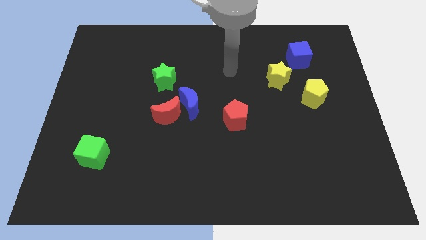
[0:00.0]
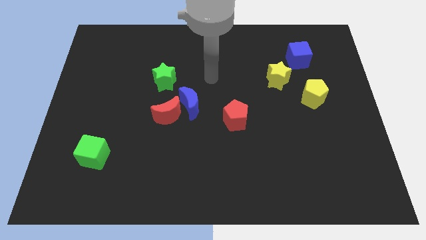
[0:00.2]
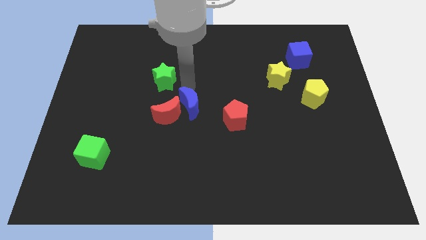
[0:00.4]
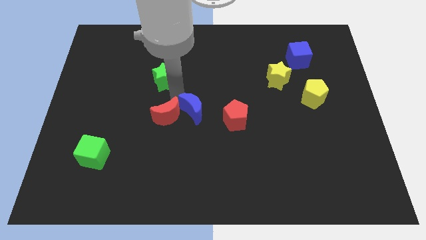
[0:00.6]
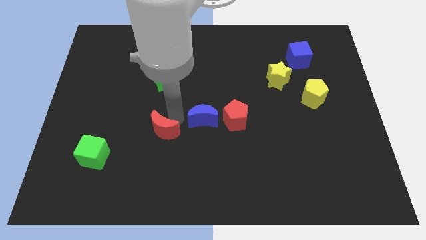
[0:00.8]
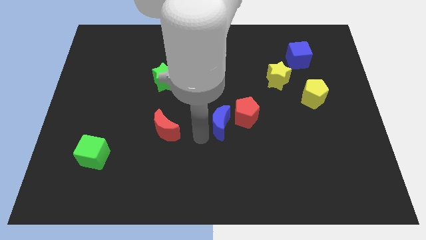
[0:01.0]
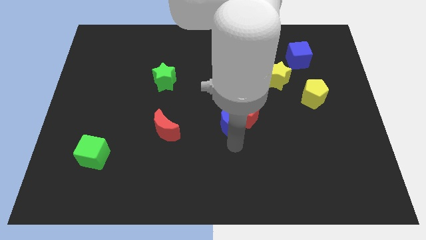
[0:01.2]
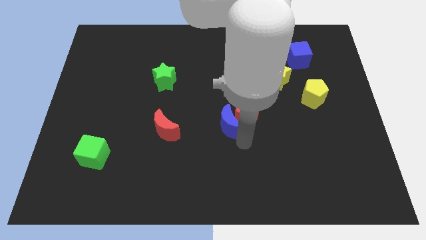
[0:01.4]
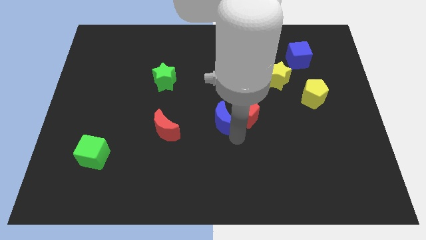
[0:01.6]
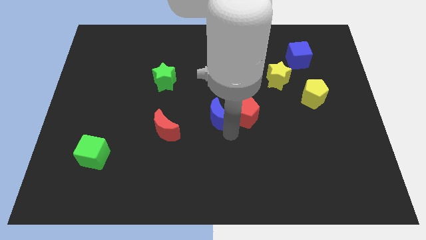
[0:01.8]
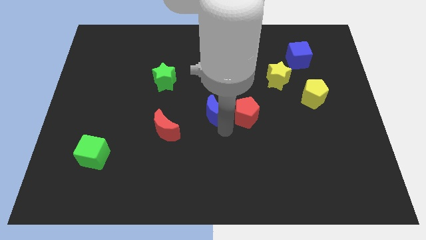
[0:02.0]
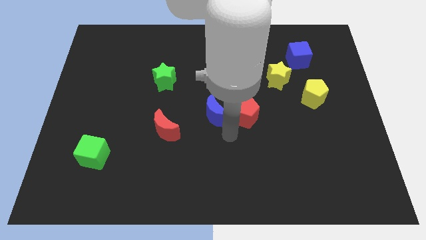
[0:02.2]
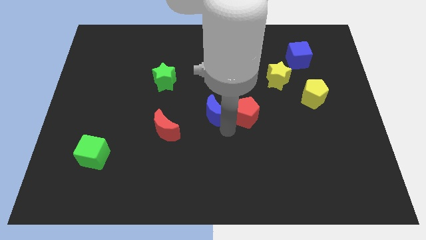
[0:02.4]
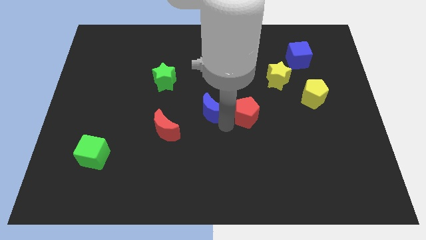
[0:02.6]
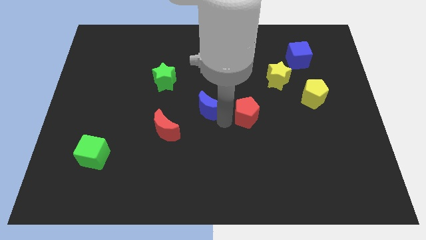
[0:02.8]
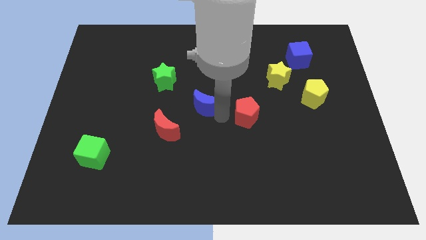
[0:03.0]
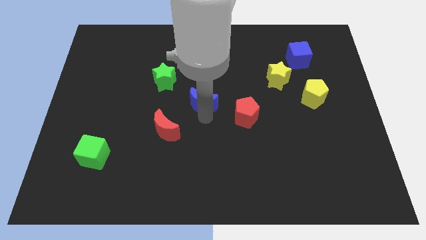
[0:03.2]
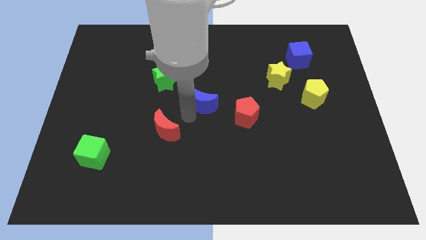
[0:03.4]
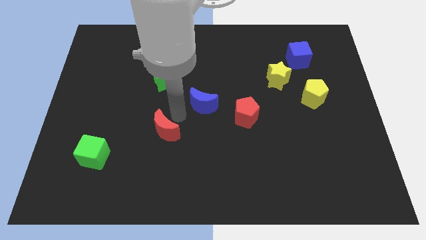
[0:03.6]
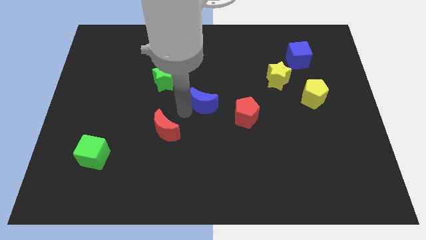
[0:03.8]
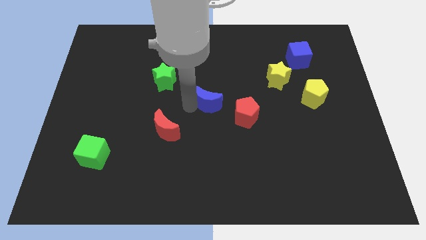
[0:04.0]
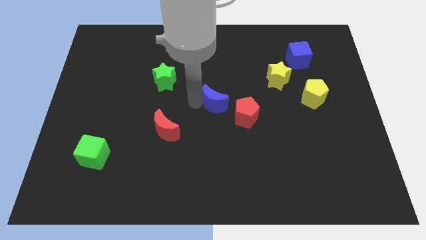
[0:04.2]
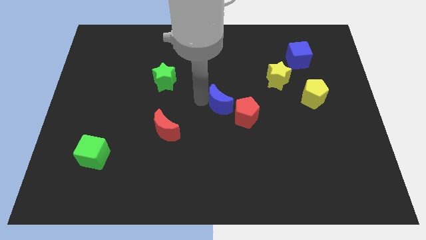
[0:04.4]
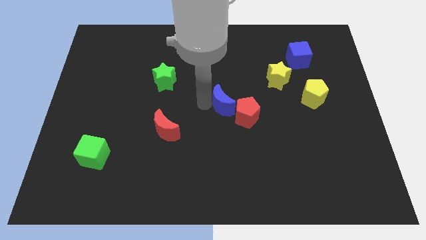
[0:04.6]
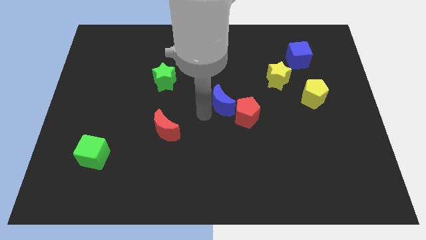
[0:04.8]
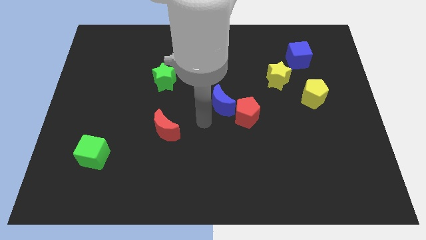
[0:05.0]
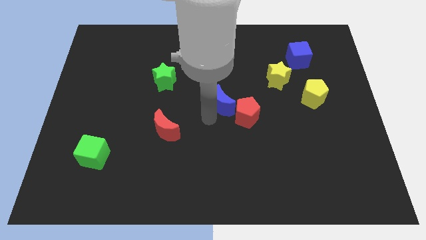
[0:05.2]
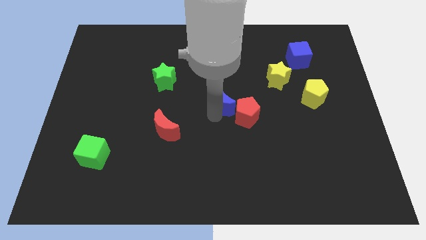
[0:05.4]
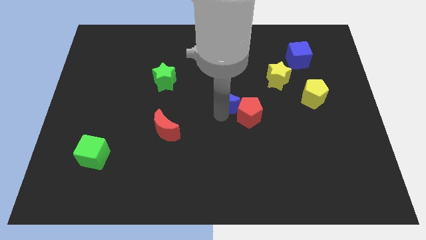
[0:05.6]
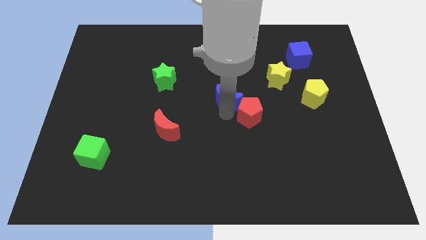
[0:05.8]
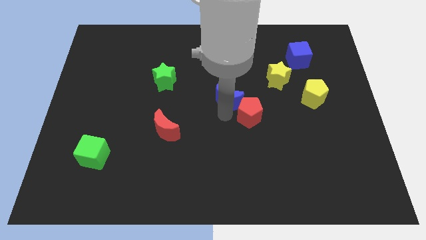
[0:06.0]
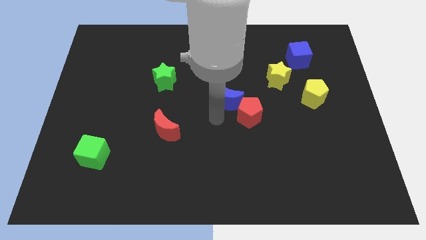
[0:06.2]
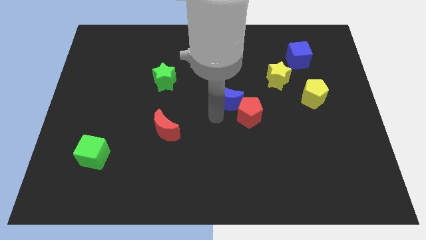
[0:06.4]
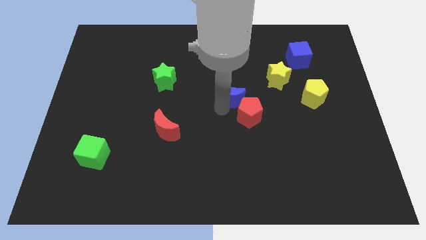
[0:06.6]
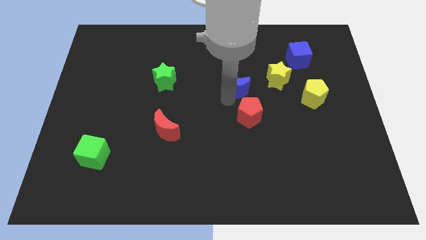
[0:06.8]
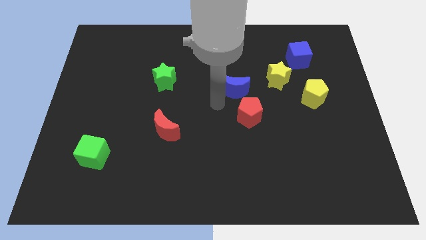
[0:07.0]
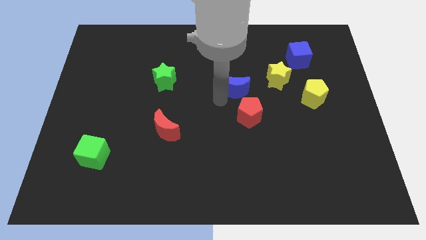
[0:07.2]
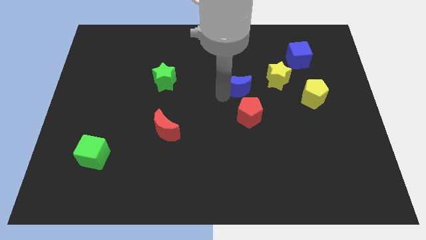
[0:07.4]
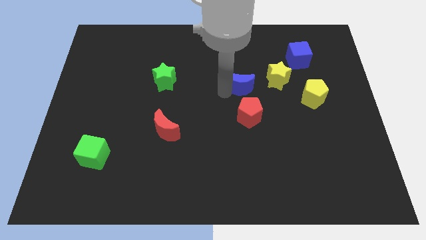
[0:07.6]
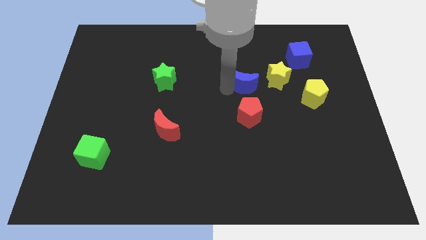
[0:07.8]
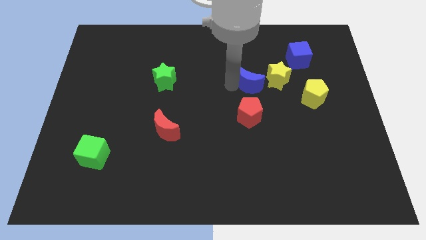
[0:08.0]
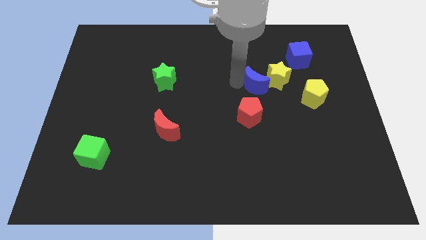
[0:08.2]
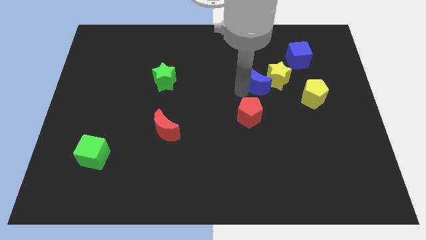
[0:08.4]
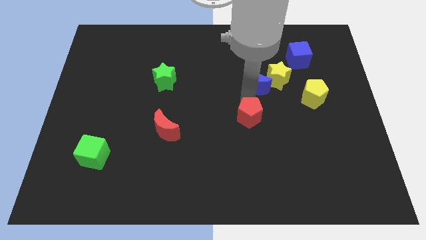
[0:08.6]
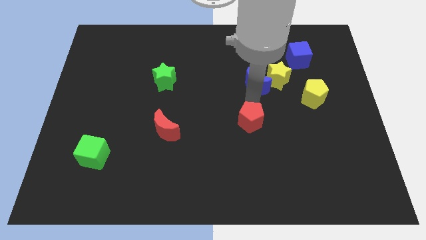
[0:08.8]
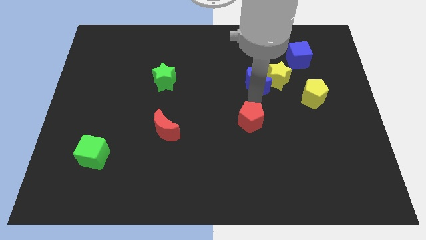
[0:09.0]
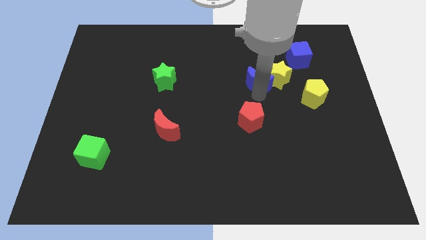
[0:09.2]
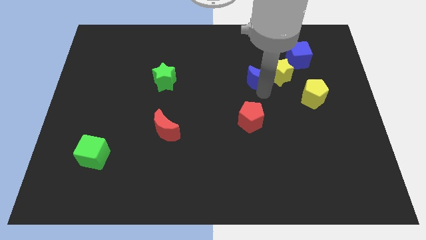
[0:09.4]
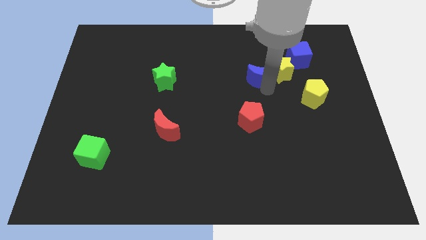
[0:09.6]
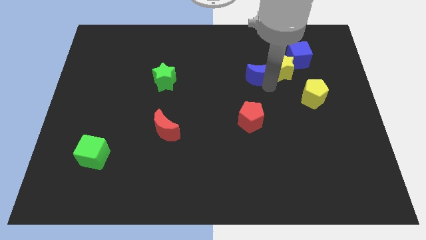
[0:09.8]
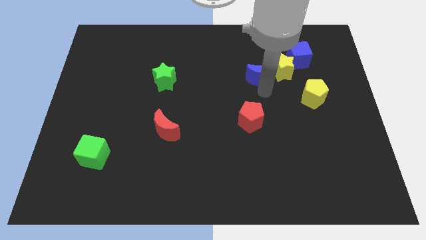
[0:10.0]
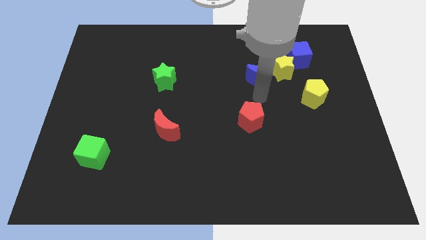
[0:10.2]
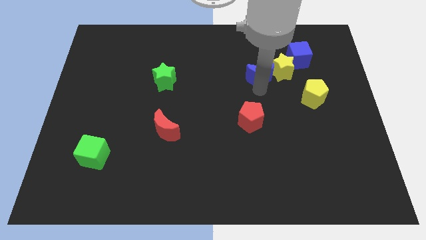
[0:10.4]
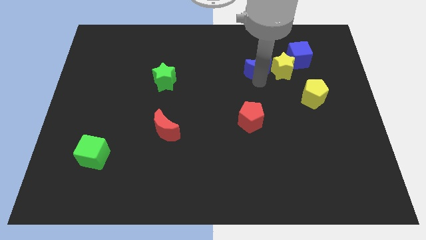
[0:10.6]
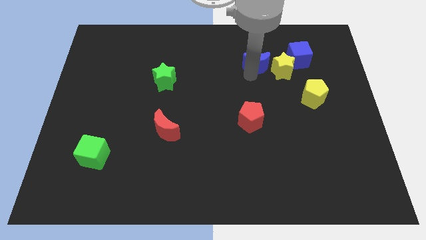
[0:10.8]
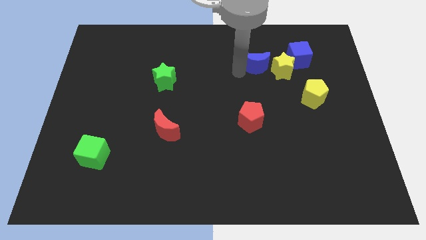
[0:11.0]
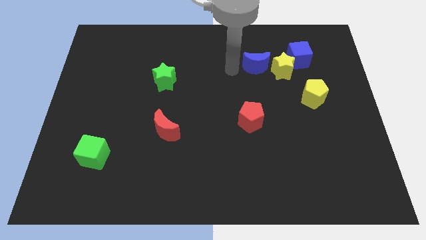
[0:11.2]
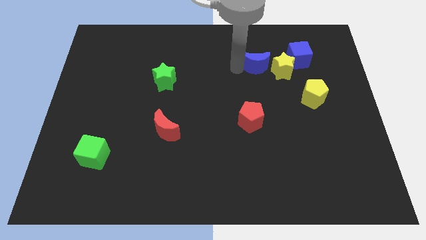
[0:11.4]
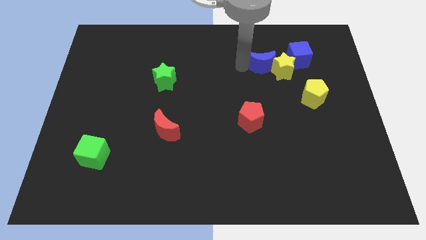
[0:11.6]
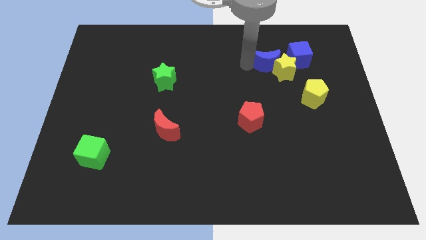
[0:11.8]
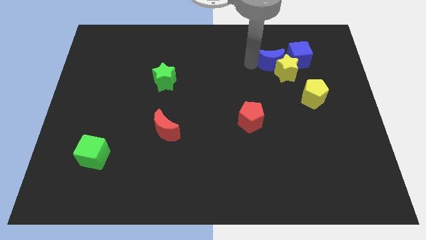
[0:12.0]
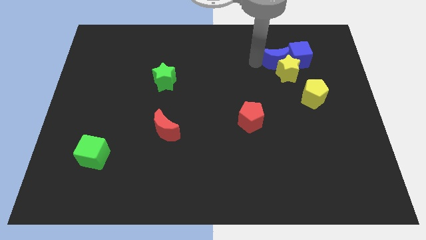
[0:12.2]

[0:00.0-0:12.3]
put the blue moon to the blue cube
